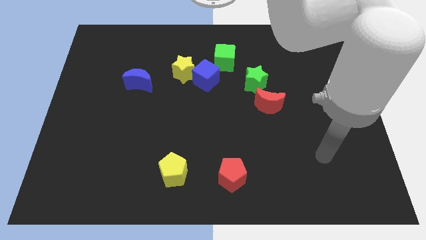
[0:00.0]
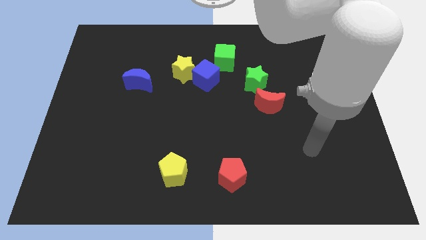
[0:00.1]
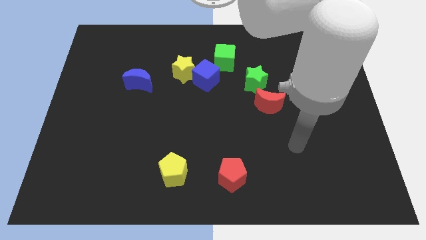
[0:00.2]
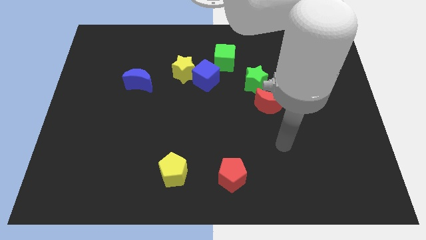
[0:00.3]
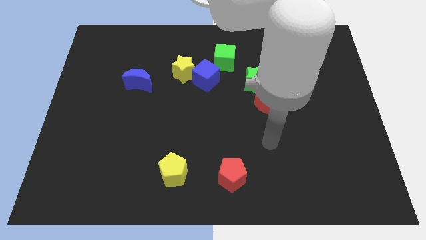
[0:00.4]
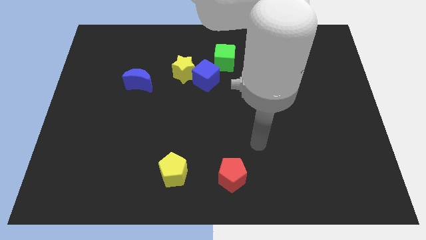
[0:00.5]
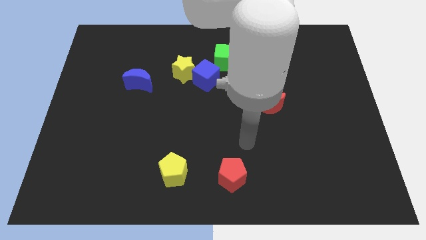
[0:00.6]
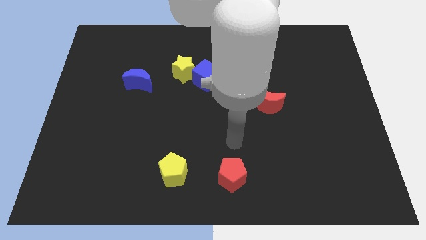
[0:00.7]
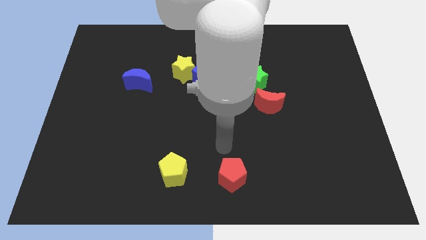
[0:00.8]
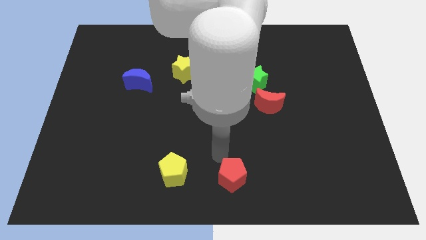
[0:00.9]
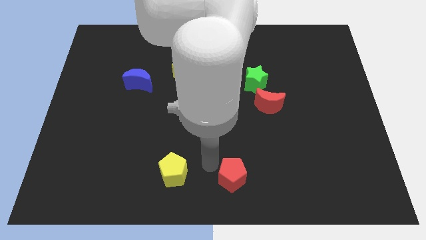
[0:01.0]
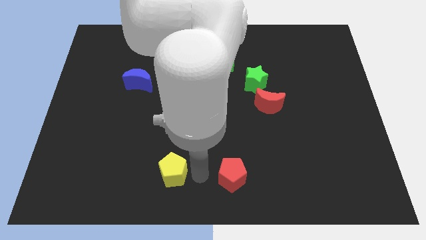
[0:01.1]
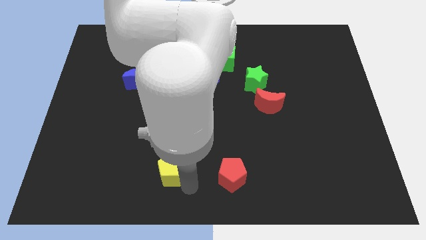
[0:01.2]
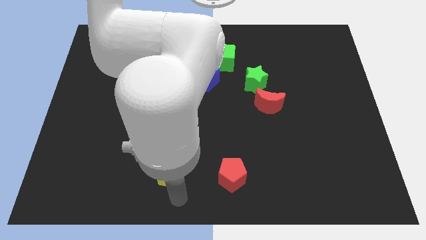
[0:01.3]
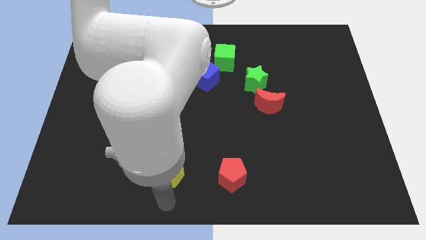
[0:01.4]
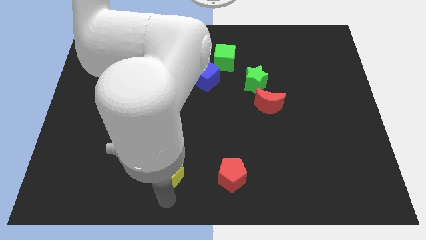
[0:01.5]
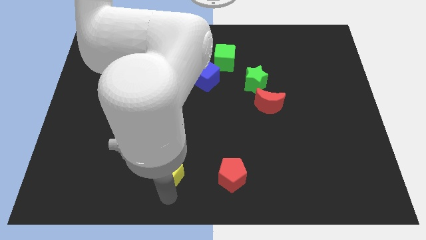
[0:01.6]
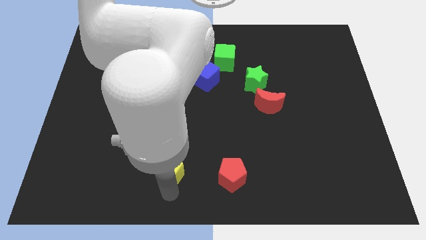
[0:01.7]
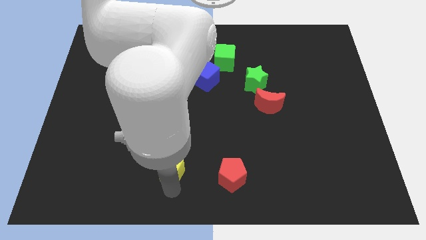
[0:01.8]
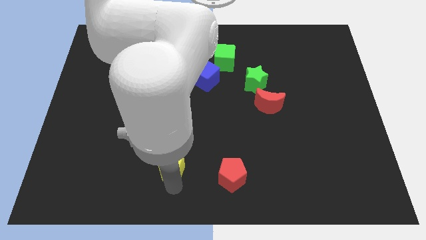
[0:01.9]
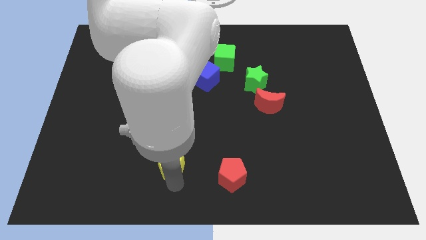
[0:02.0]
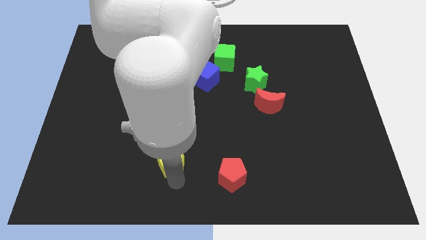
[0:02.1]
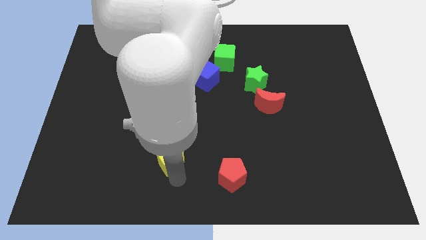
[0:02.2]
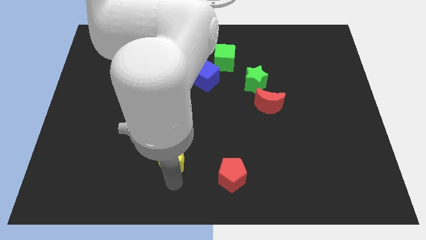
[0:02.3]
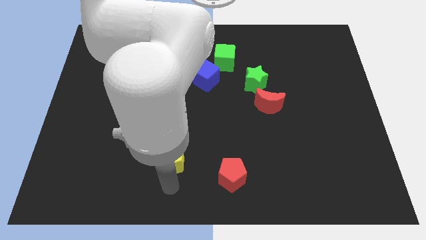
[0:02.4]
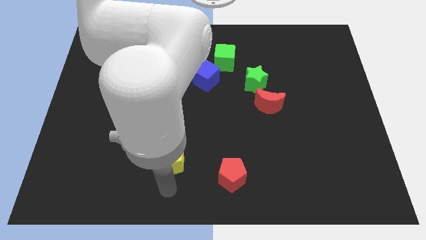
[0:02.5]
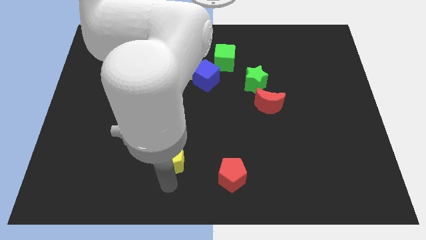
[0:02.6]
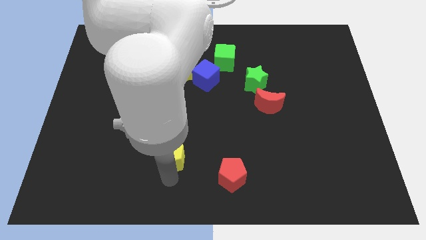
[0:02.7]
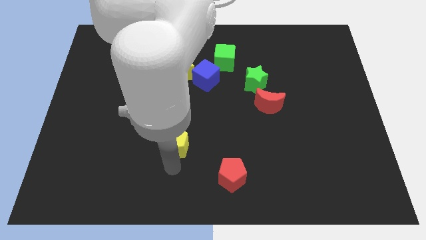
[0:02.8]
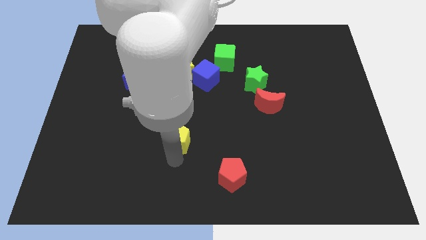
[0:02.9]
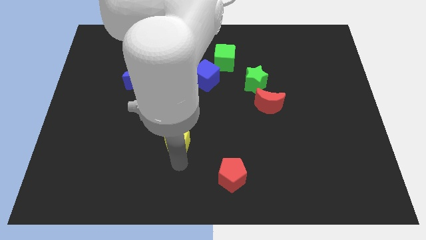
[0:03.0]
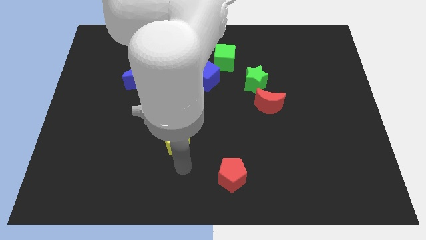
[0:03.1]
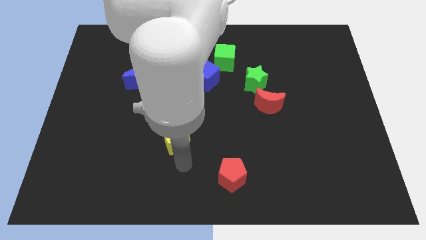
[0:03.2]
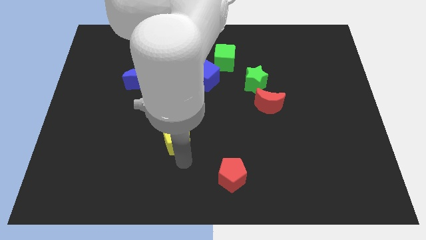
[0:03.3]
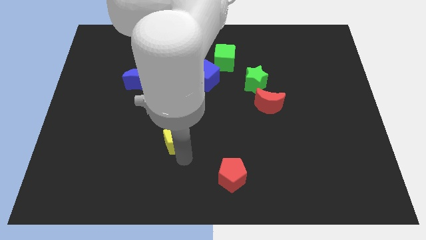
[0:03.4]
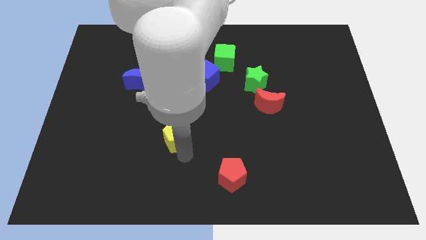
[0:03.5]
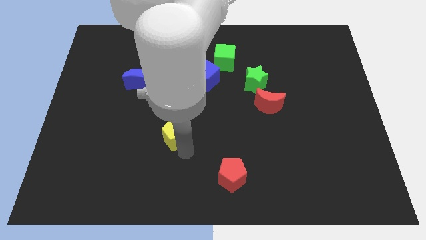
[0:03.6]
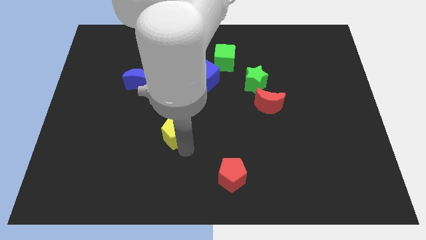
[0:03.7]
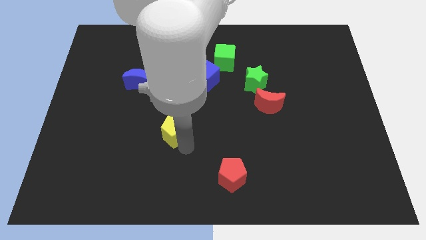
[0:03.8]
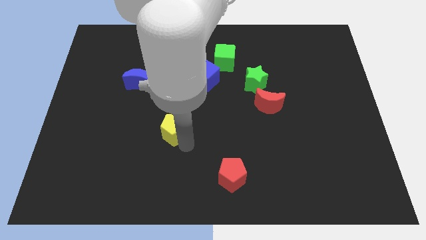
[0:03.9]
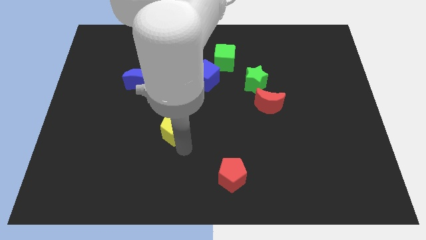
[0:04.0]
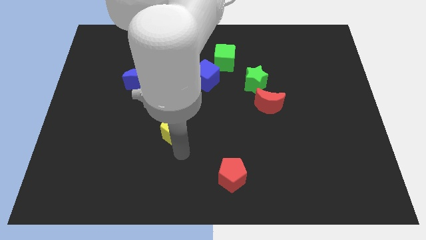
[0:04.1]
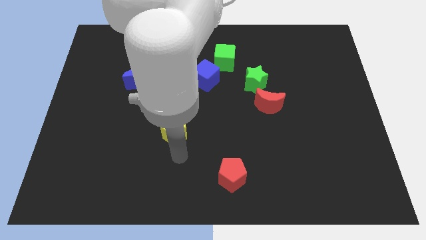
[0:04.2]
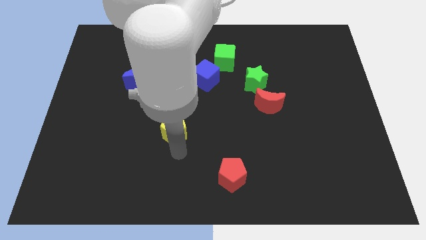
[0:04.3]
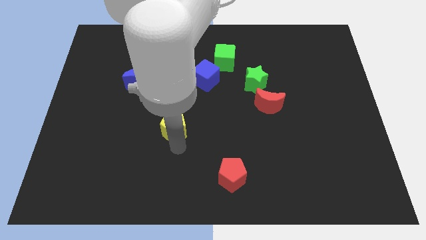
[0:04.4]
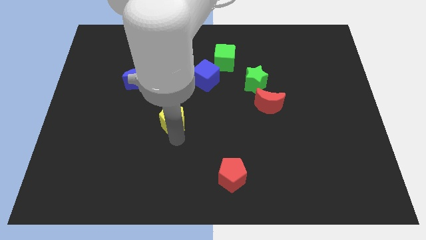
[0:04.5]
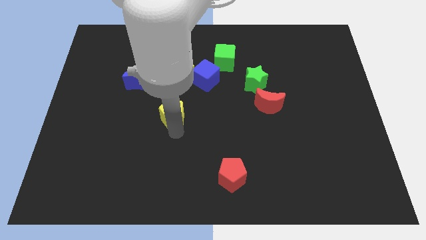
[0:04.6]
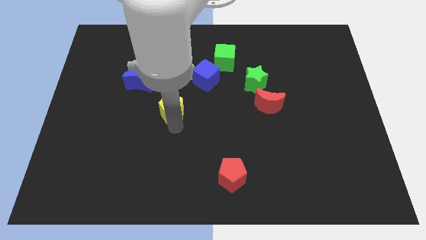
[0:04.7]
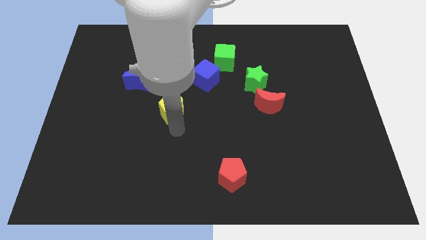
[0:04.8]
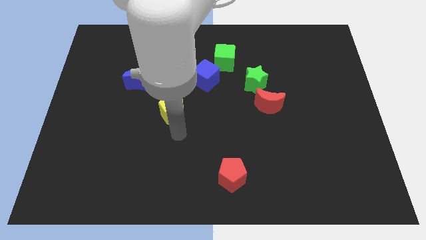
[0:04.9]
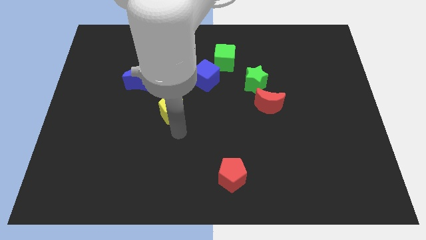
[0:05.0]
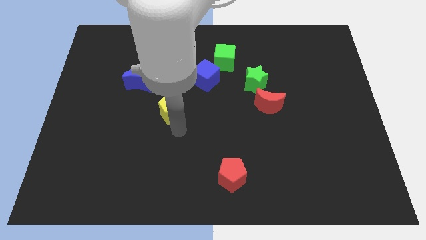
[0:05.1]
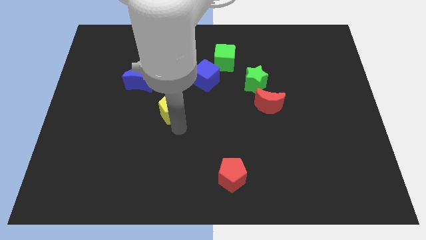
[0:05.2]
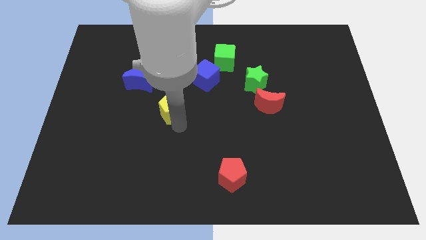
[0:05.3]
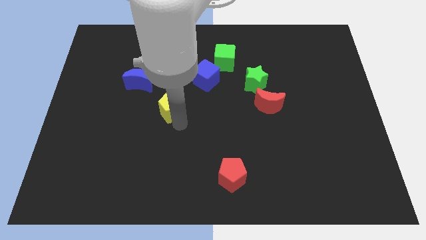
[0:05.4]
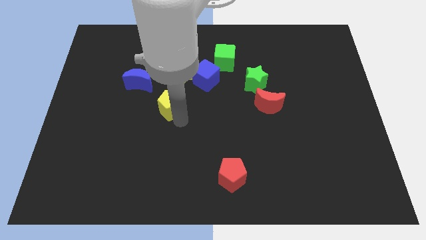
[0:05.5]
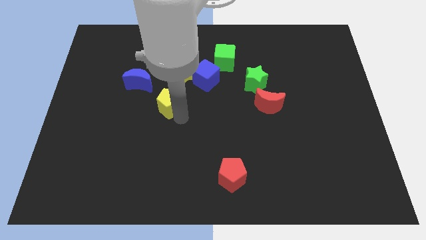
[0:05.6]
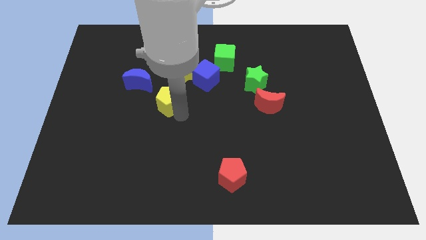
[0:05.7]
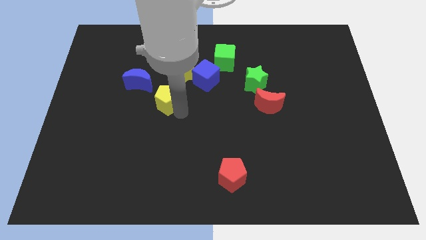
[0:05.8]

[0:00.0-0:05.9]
slide the yellow pentagon diagonally down and to the left of the yellow star

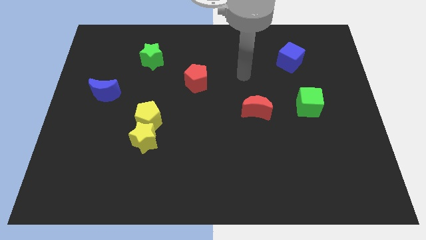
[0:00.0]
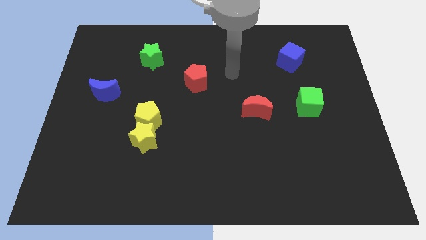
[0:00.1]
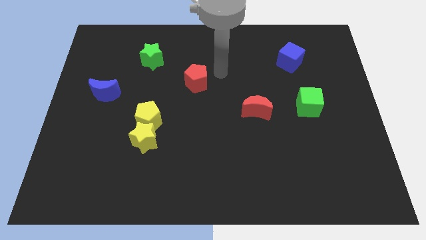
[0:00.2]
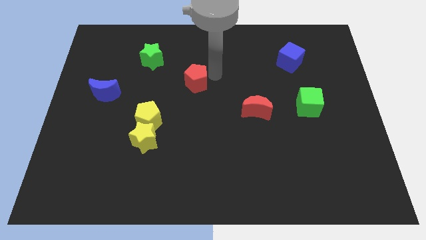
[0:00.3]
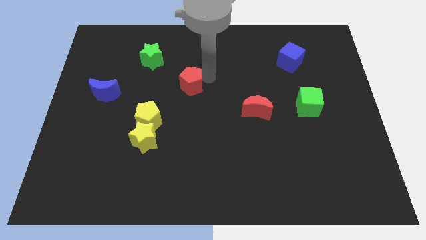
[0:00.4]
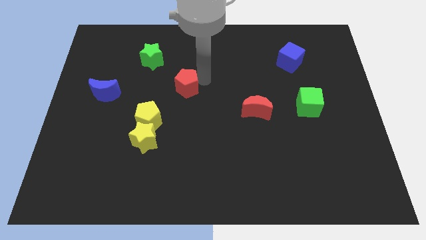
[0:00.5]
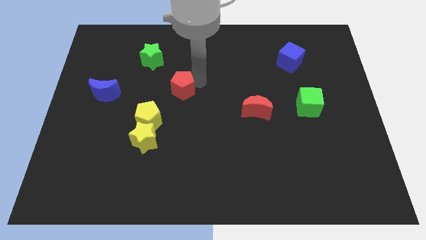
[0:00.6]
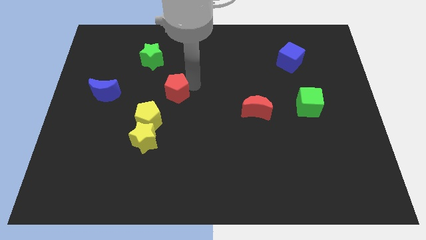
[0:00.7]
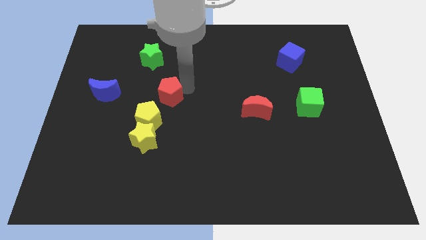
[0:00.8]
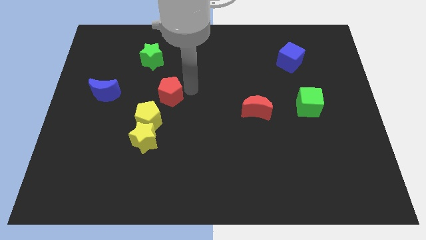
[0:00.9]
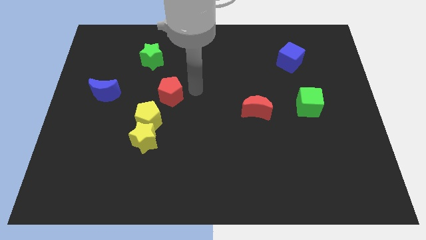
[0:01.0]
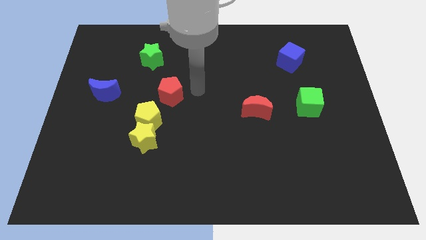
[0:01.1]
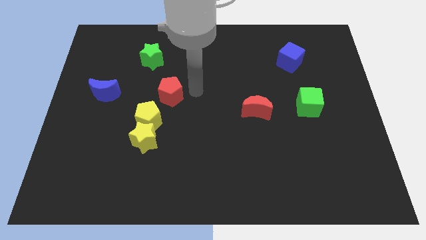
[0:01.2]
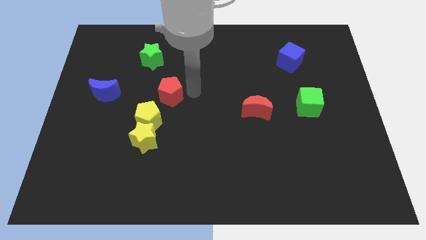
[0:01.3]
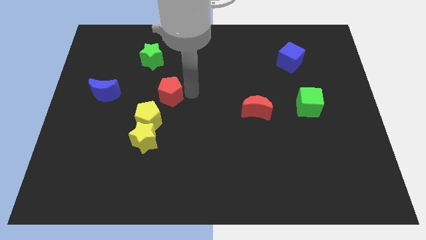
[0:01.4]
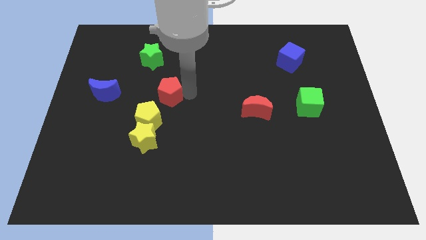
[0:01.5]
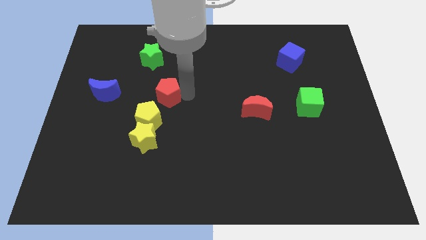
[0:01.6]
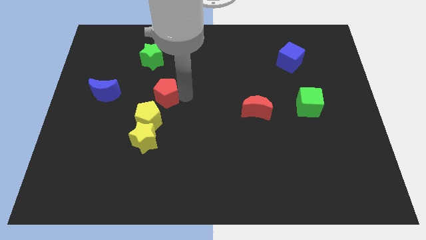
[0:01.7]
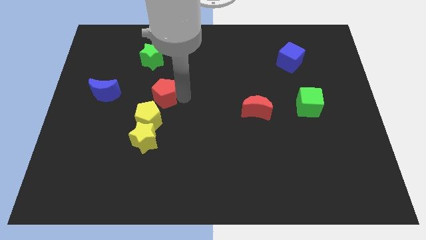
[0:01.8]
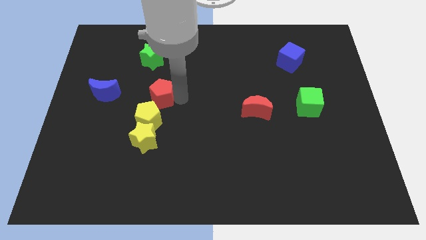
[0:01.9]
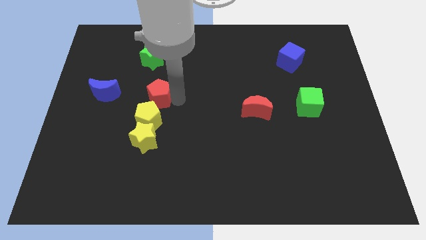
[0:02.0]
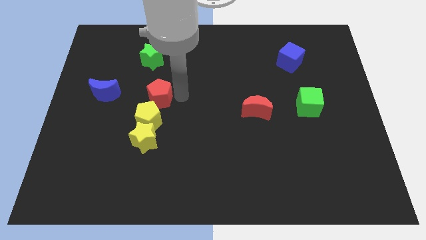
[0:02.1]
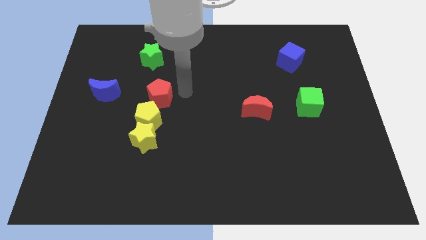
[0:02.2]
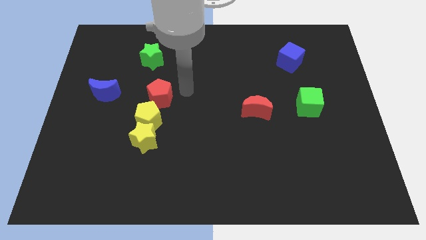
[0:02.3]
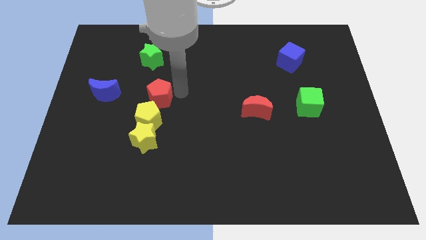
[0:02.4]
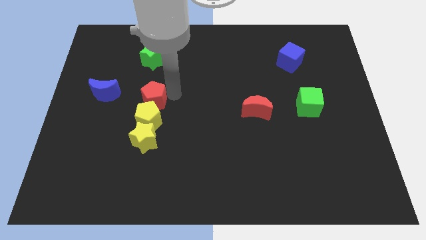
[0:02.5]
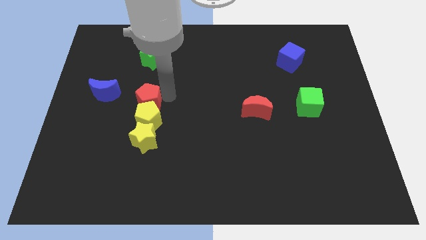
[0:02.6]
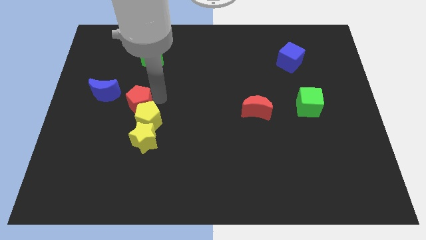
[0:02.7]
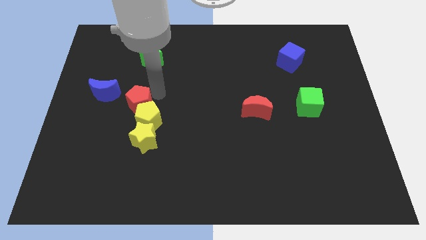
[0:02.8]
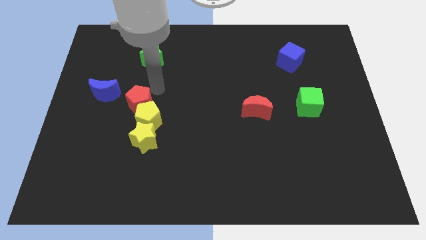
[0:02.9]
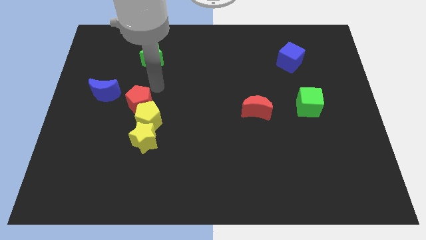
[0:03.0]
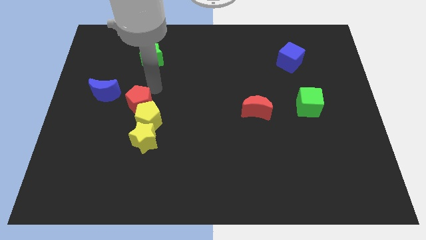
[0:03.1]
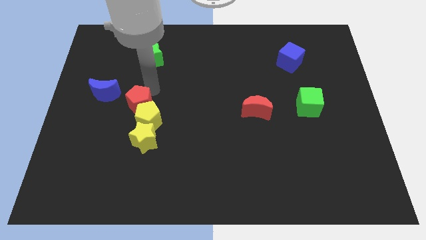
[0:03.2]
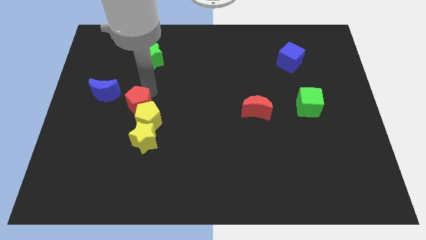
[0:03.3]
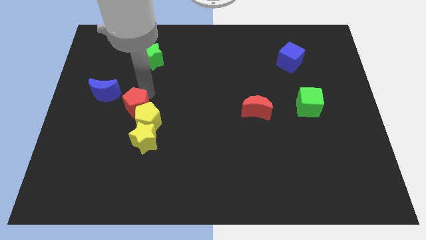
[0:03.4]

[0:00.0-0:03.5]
slide the red pentagon diagonally up and to the left of the yellow star
